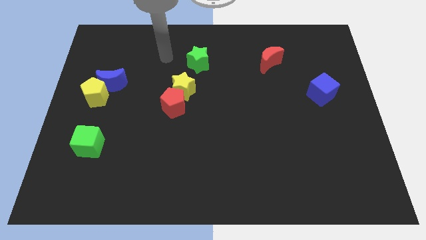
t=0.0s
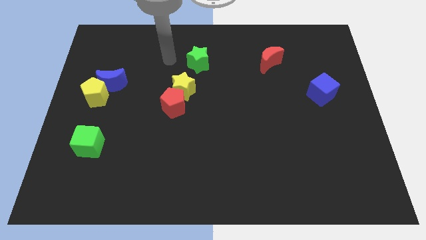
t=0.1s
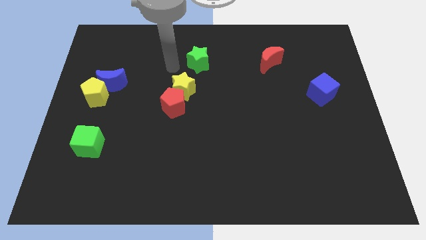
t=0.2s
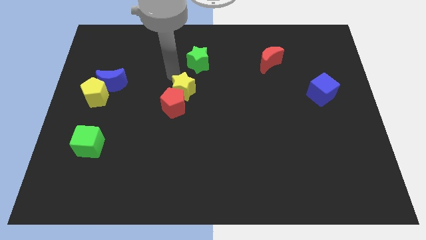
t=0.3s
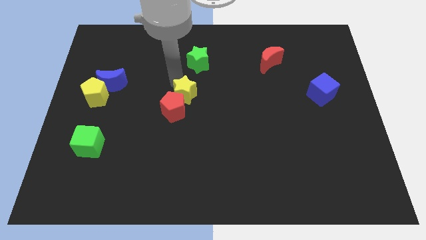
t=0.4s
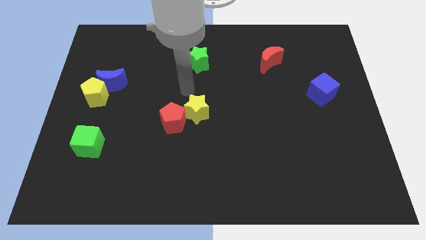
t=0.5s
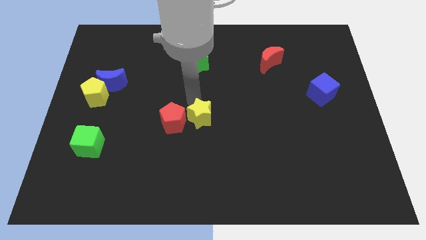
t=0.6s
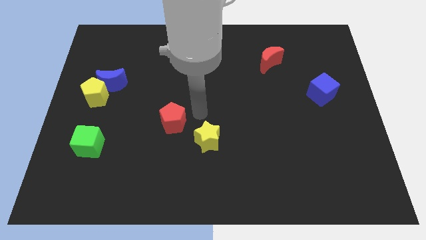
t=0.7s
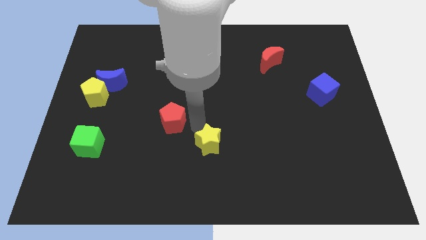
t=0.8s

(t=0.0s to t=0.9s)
move the red pentagon away from the yellow star

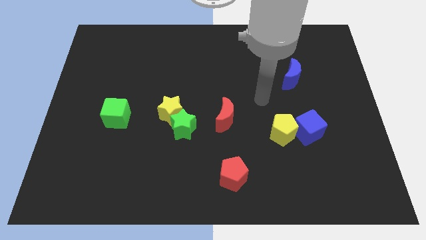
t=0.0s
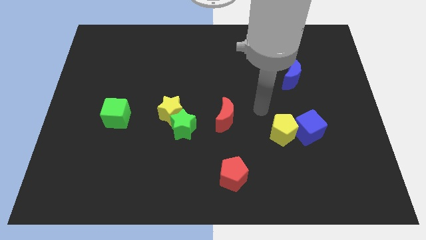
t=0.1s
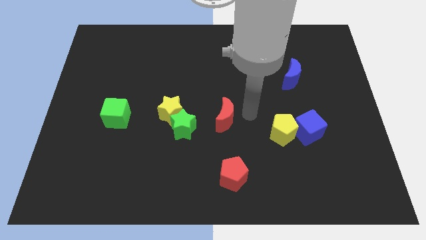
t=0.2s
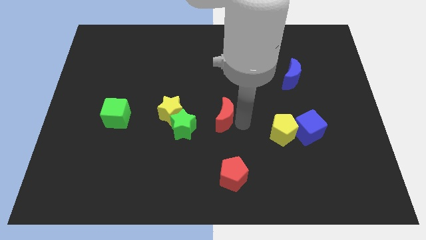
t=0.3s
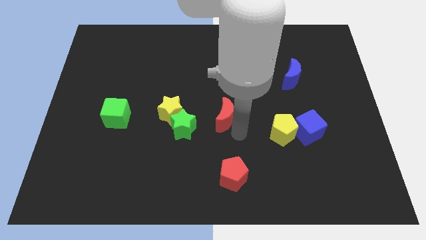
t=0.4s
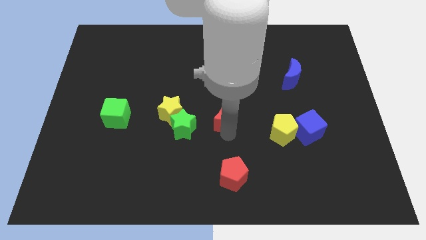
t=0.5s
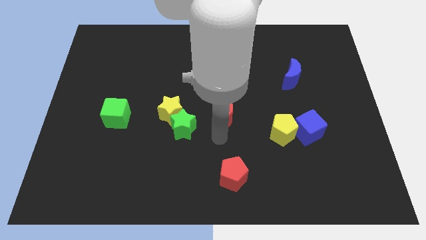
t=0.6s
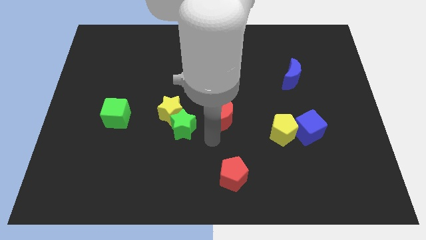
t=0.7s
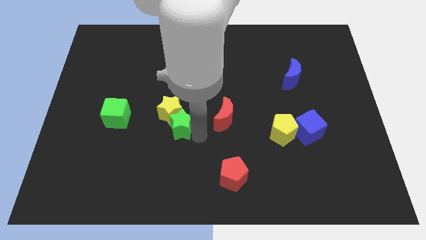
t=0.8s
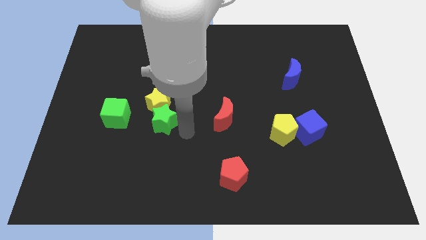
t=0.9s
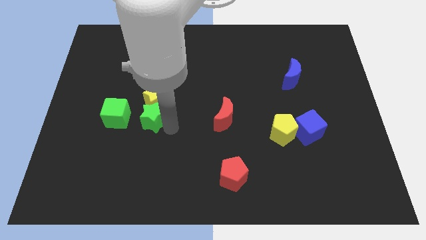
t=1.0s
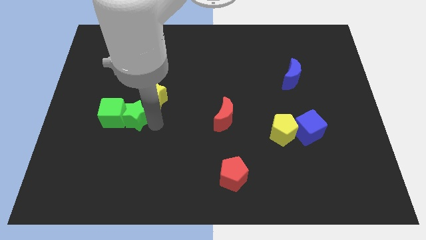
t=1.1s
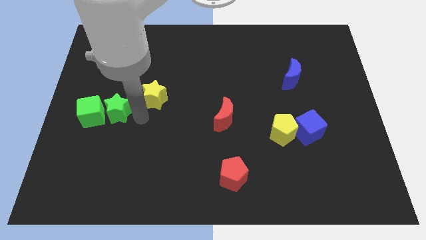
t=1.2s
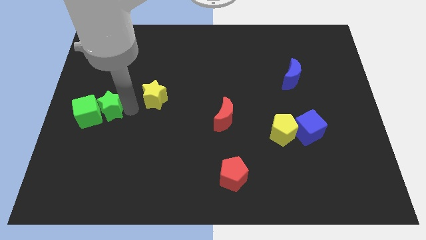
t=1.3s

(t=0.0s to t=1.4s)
pull the yellow star apart from the green star

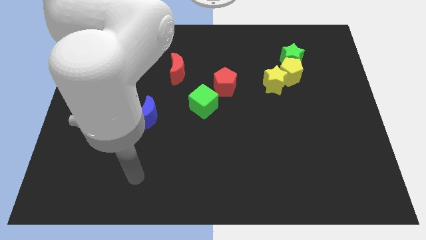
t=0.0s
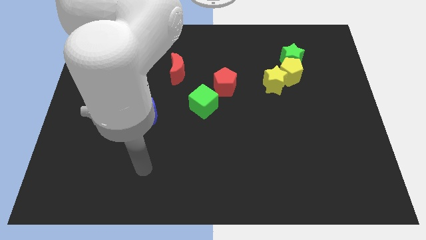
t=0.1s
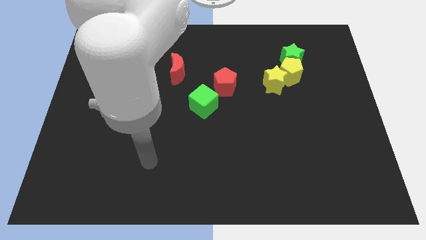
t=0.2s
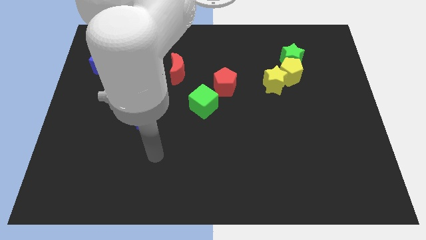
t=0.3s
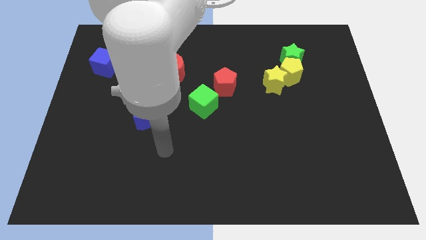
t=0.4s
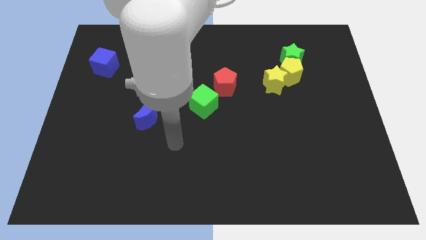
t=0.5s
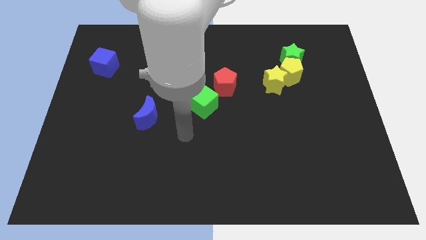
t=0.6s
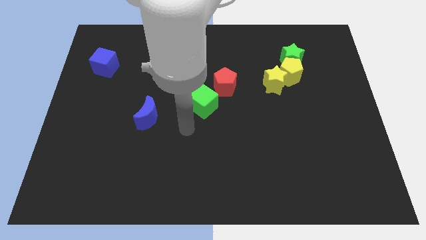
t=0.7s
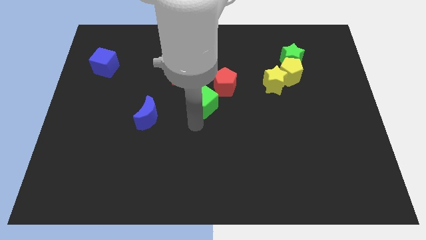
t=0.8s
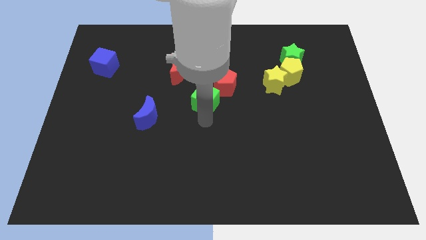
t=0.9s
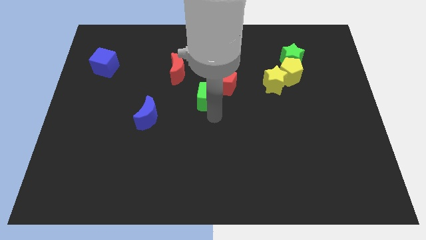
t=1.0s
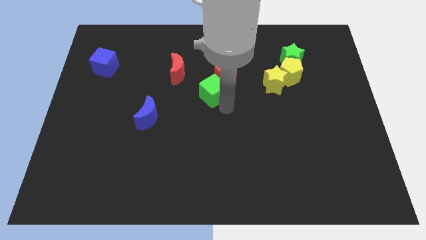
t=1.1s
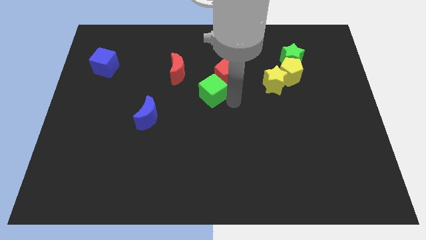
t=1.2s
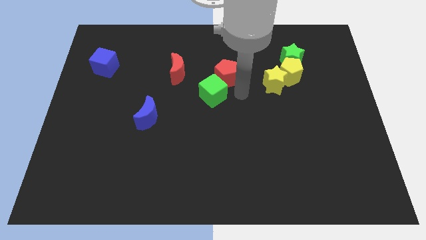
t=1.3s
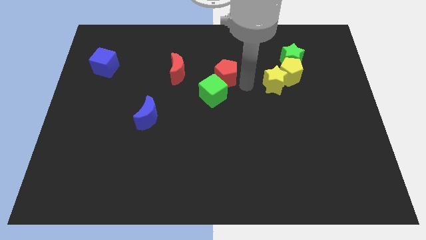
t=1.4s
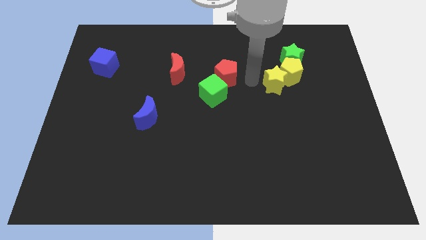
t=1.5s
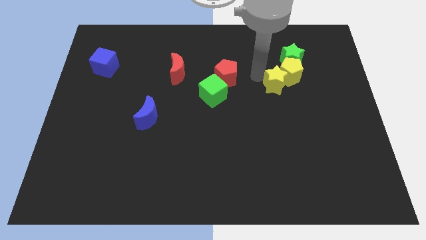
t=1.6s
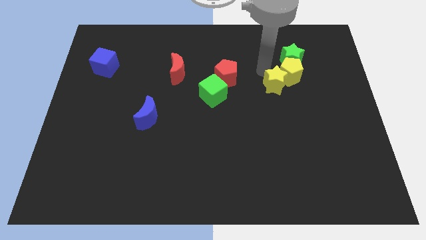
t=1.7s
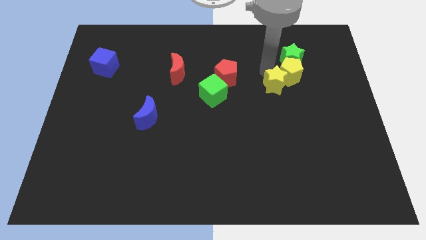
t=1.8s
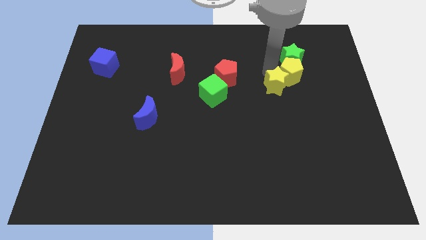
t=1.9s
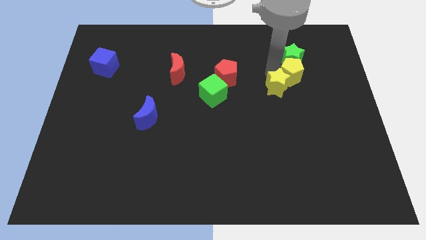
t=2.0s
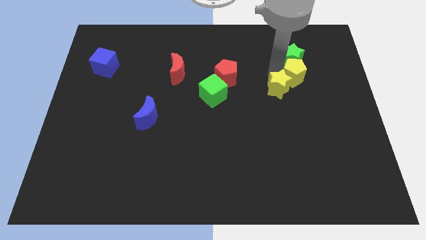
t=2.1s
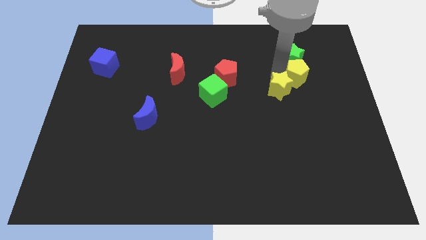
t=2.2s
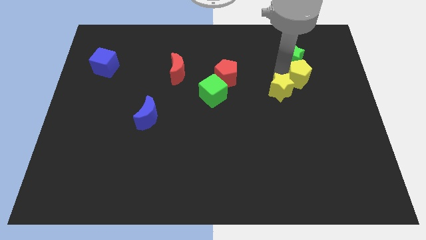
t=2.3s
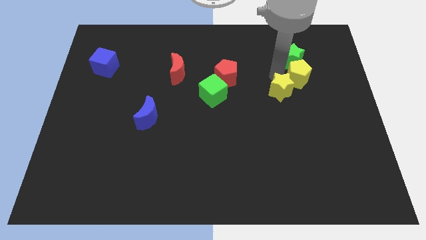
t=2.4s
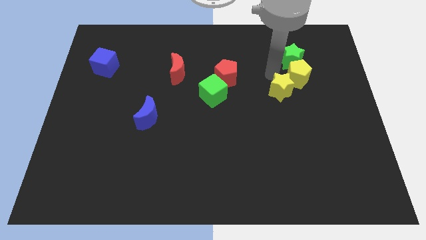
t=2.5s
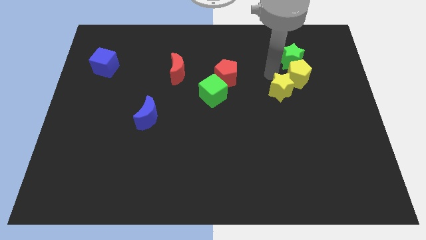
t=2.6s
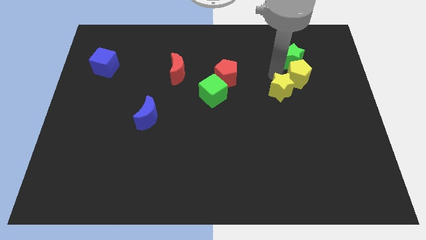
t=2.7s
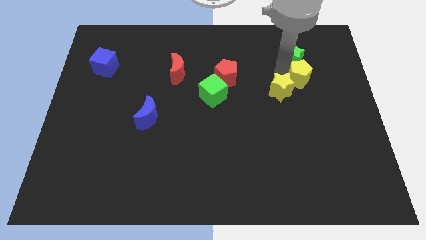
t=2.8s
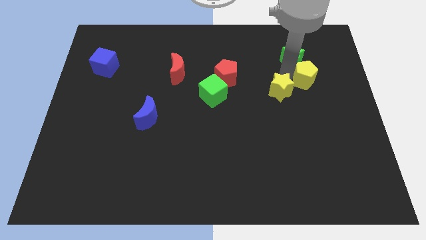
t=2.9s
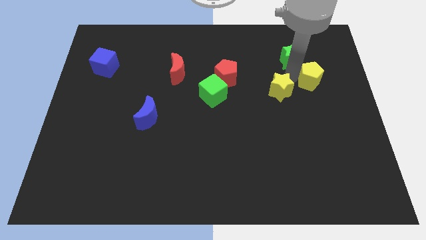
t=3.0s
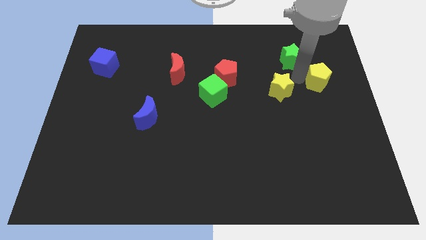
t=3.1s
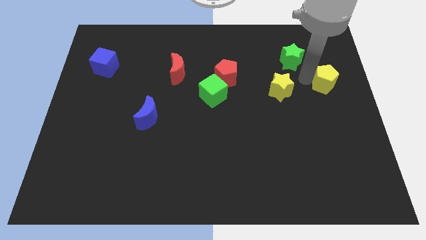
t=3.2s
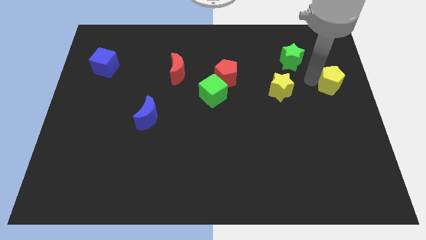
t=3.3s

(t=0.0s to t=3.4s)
move the yellow pentagon away from the yellow star and green star

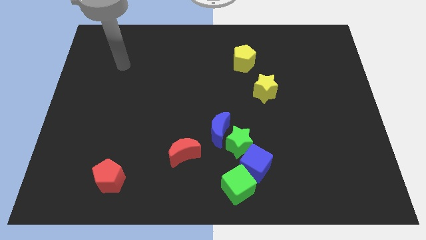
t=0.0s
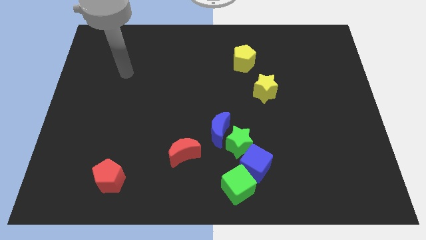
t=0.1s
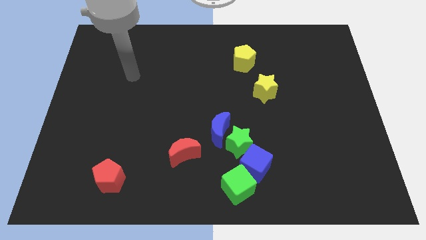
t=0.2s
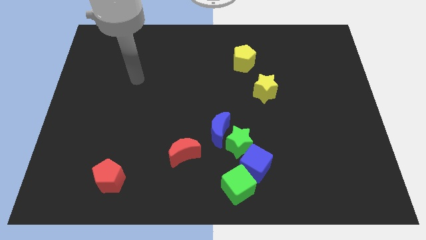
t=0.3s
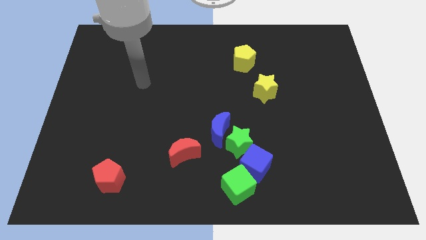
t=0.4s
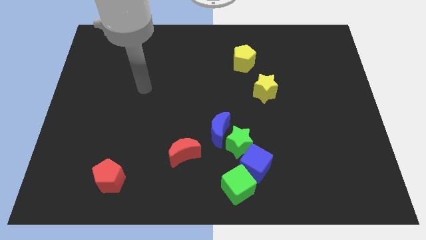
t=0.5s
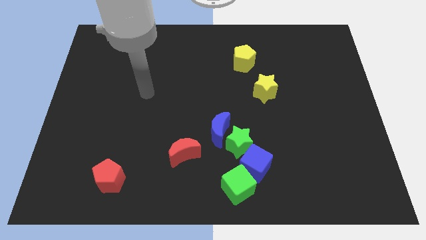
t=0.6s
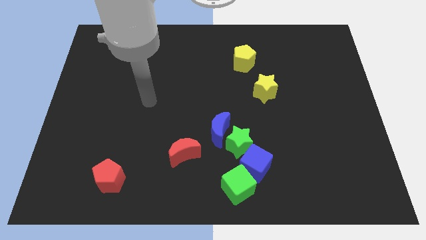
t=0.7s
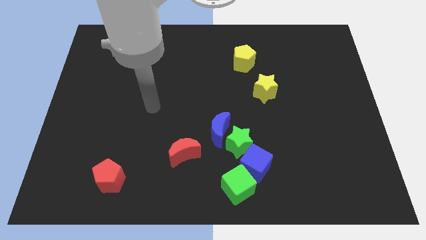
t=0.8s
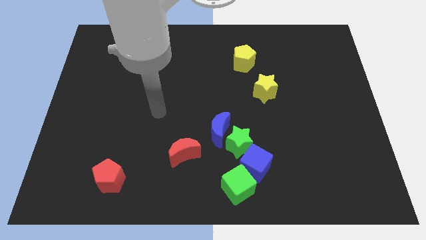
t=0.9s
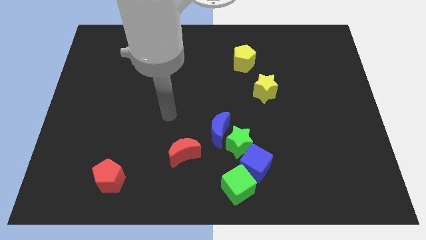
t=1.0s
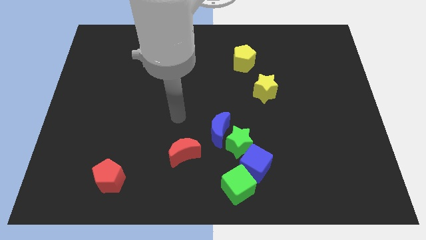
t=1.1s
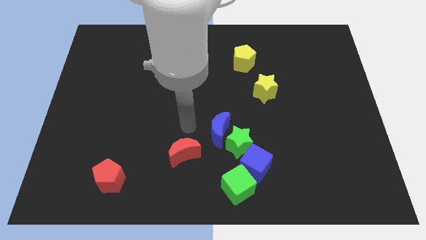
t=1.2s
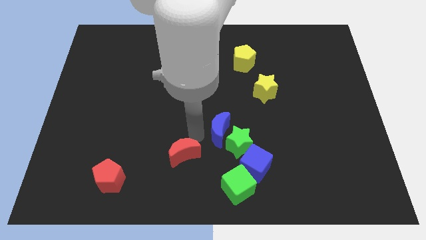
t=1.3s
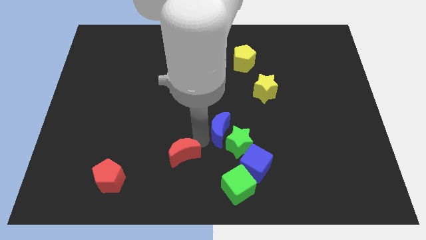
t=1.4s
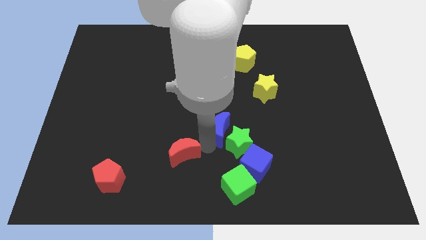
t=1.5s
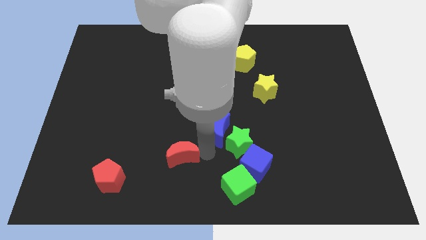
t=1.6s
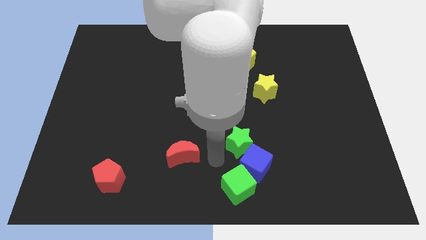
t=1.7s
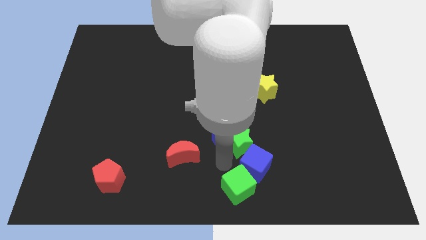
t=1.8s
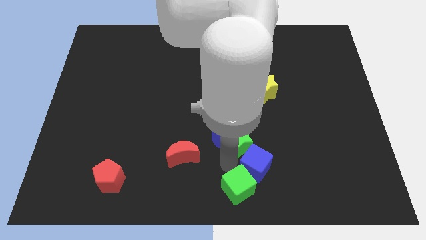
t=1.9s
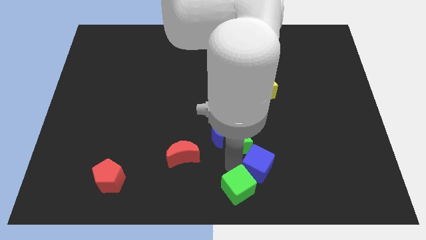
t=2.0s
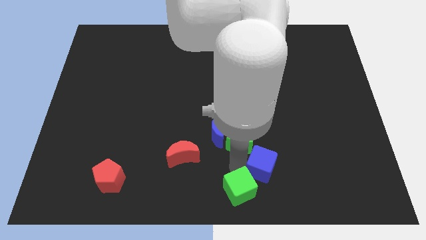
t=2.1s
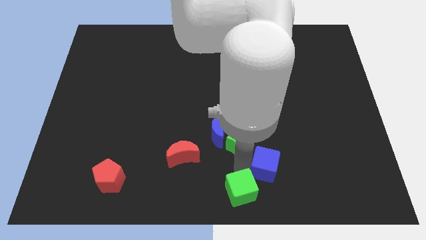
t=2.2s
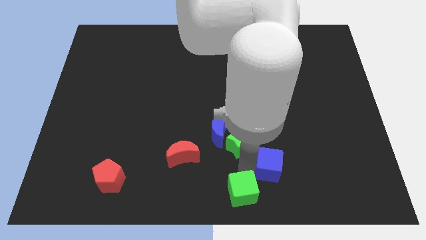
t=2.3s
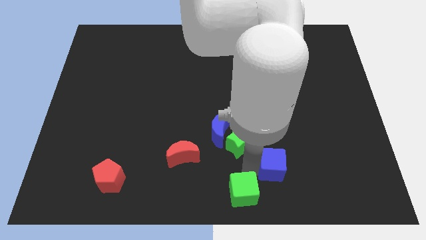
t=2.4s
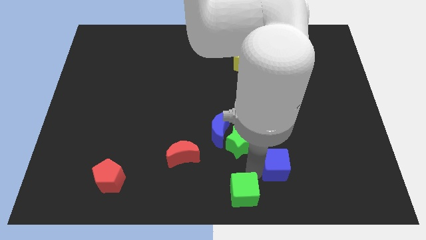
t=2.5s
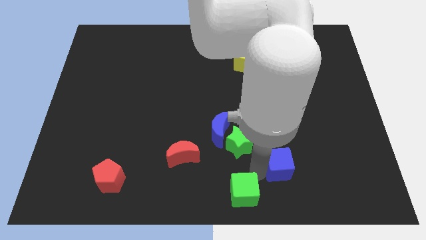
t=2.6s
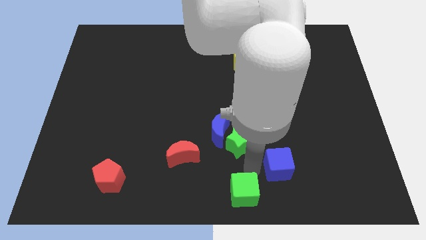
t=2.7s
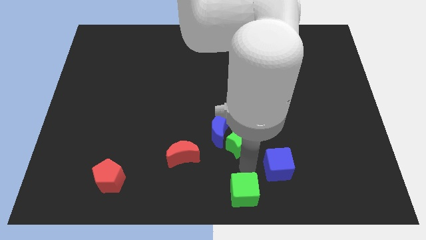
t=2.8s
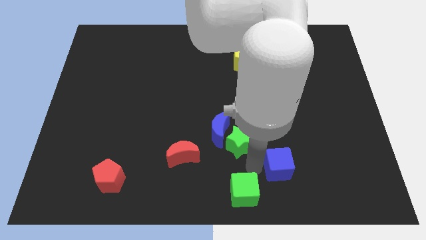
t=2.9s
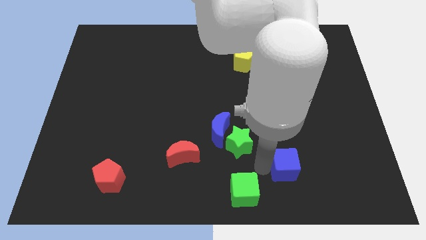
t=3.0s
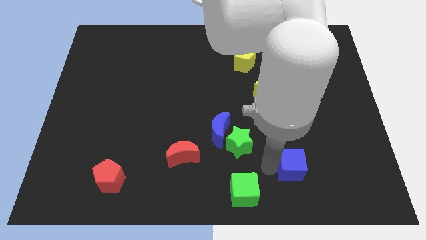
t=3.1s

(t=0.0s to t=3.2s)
move the blue cube away from the green cube and green star

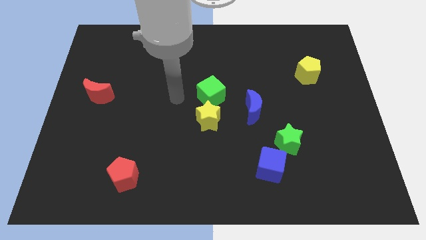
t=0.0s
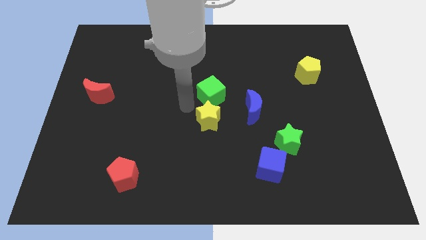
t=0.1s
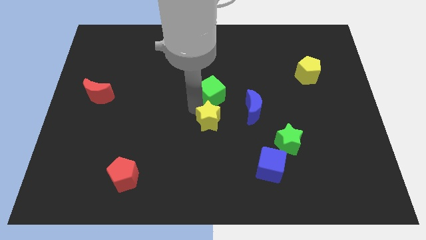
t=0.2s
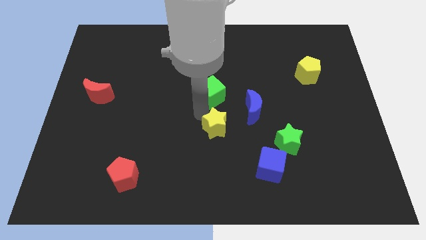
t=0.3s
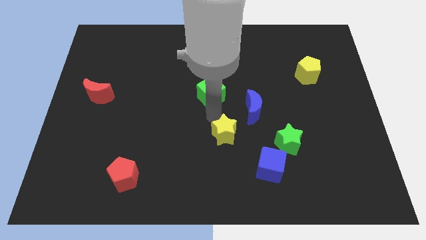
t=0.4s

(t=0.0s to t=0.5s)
move the green cube away from the yellow star
